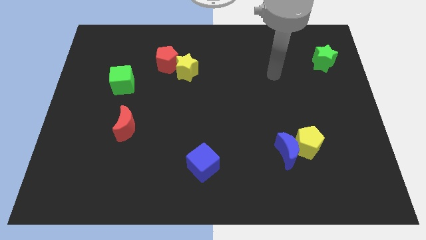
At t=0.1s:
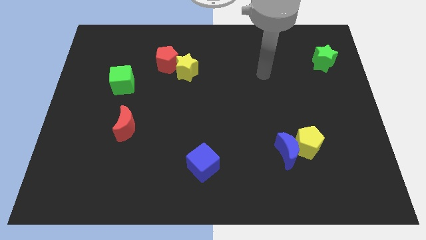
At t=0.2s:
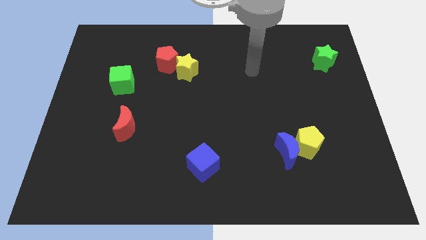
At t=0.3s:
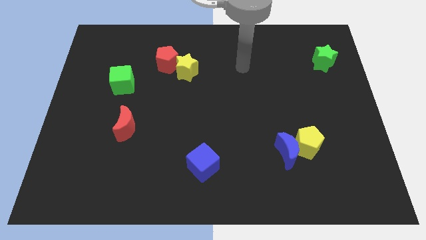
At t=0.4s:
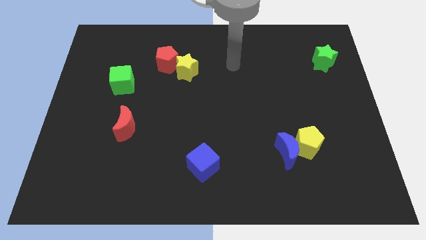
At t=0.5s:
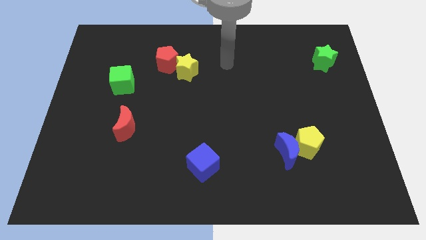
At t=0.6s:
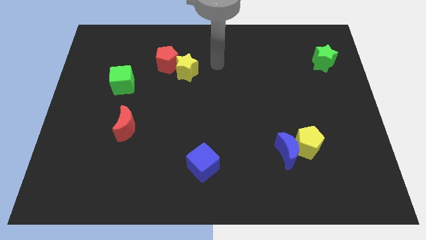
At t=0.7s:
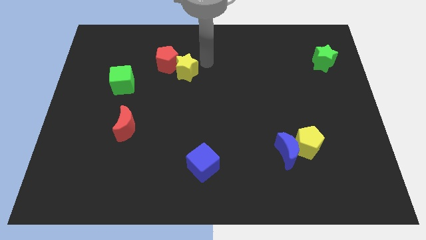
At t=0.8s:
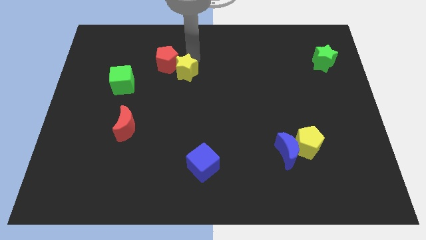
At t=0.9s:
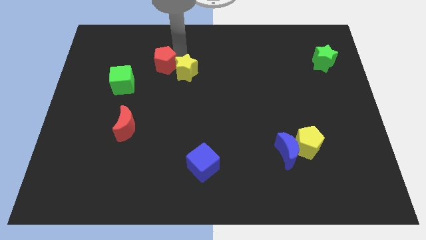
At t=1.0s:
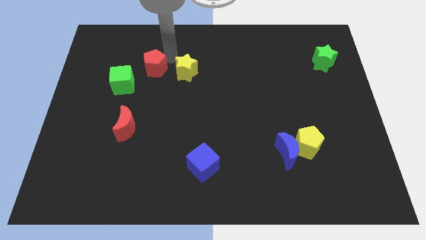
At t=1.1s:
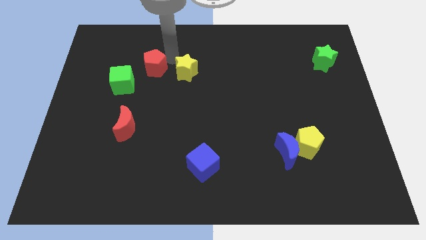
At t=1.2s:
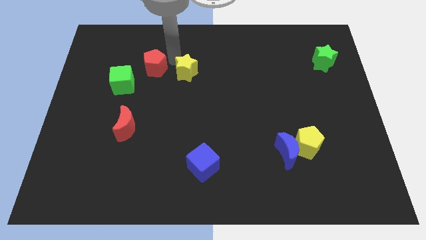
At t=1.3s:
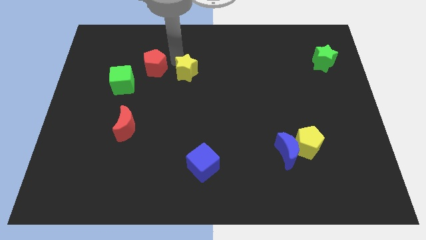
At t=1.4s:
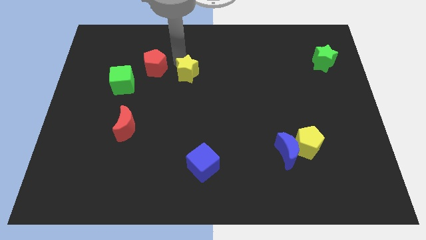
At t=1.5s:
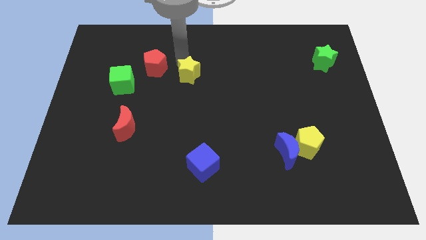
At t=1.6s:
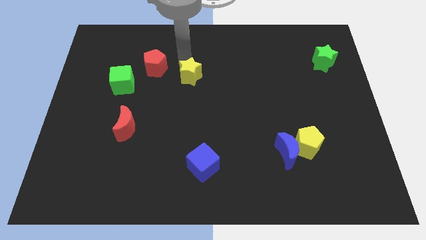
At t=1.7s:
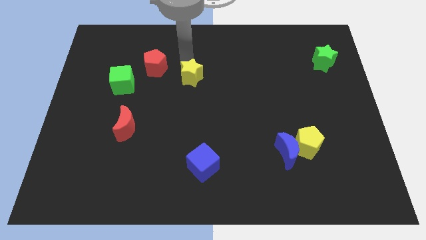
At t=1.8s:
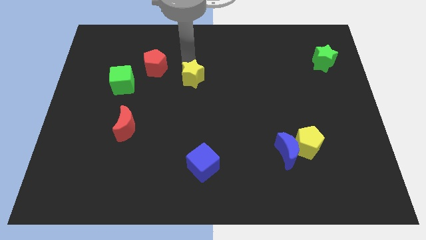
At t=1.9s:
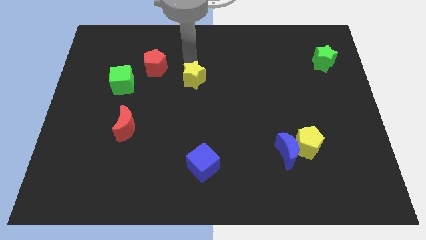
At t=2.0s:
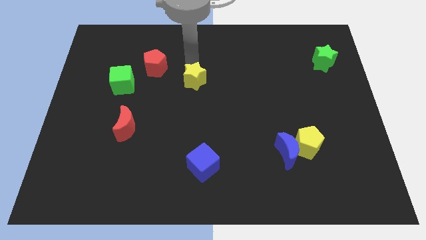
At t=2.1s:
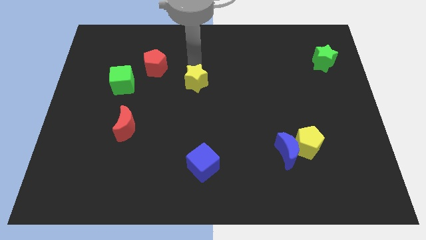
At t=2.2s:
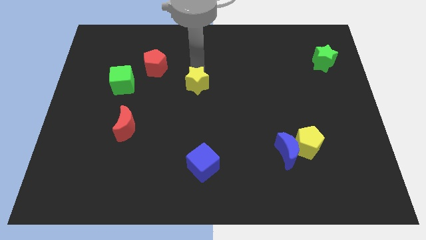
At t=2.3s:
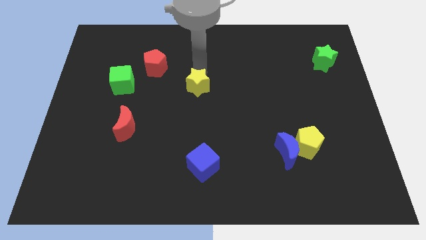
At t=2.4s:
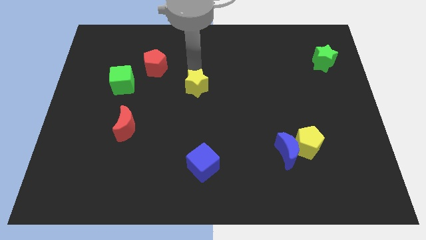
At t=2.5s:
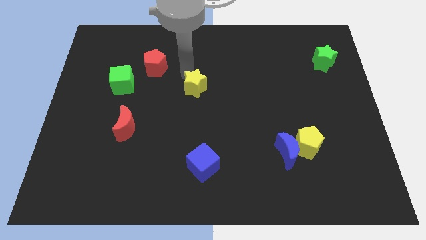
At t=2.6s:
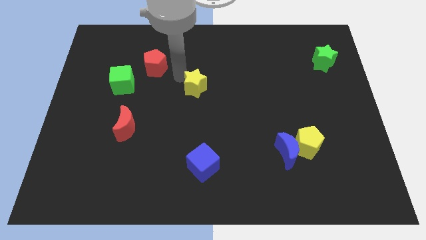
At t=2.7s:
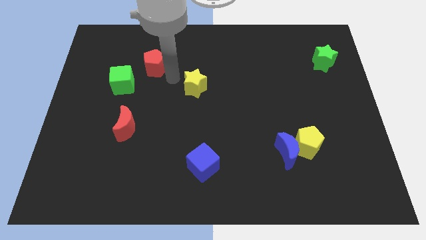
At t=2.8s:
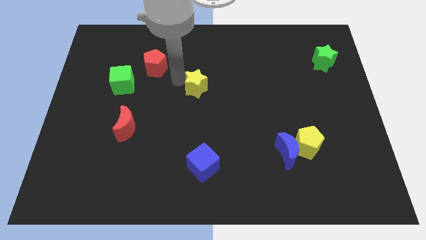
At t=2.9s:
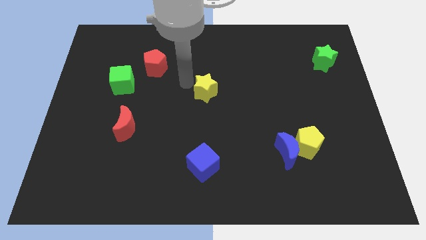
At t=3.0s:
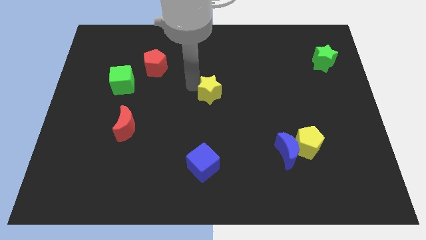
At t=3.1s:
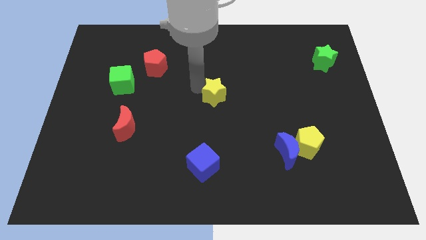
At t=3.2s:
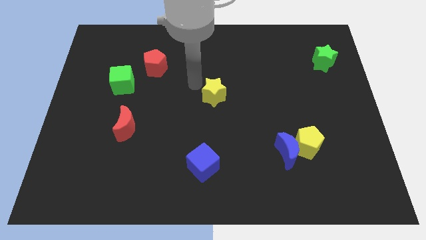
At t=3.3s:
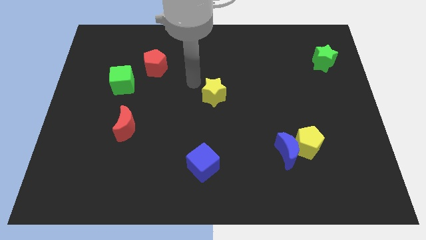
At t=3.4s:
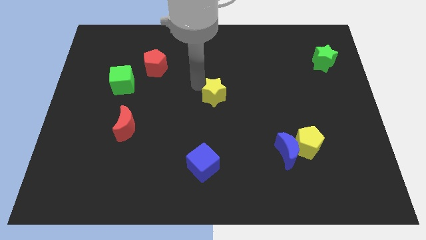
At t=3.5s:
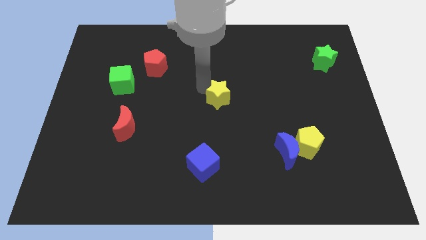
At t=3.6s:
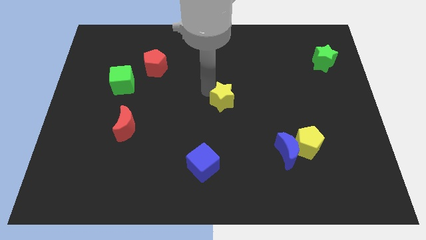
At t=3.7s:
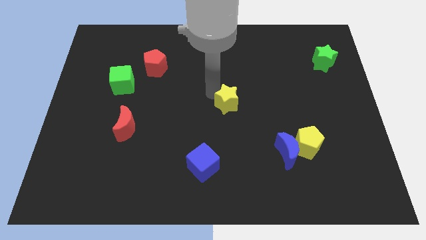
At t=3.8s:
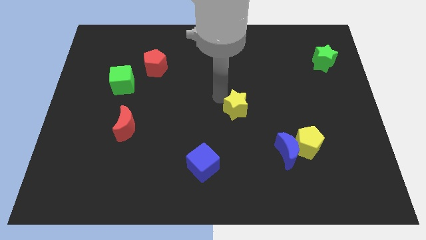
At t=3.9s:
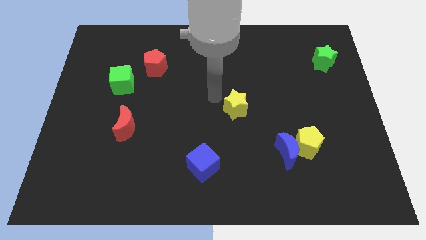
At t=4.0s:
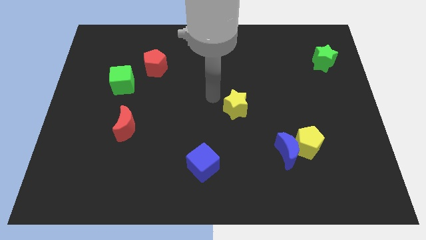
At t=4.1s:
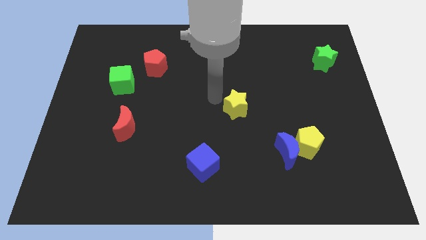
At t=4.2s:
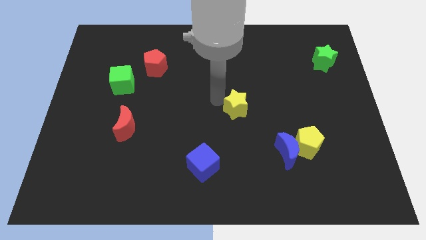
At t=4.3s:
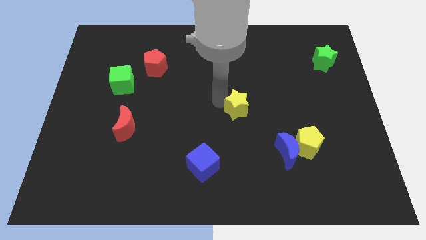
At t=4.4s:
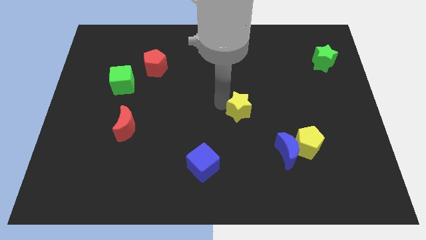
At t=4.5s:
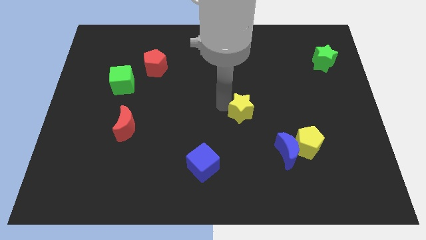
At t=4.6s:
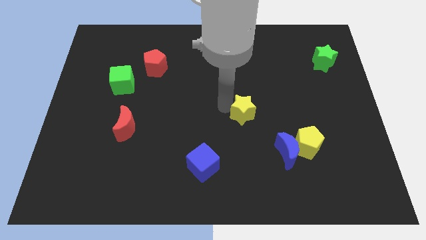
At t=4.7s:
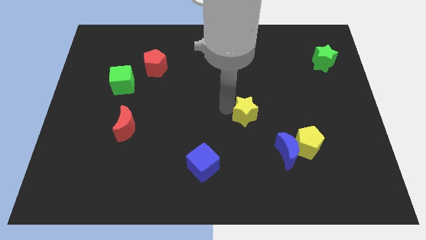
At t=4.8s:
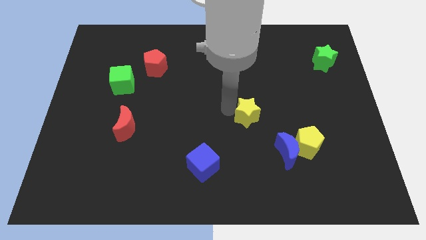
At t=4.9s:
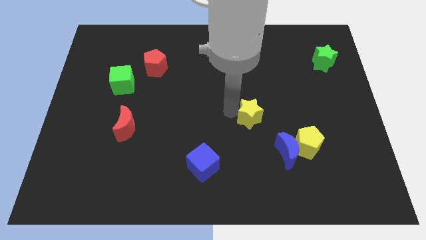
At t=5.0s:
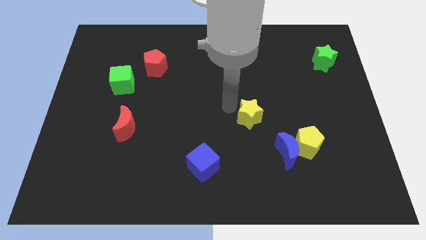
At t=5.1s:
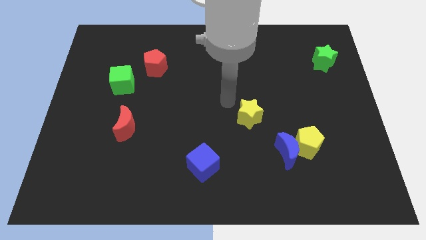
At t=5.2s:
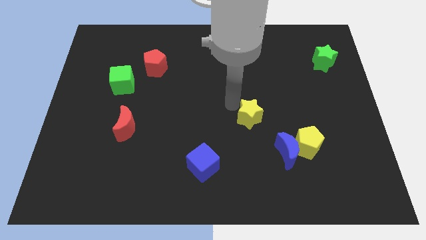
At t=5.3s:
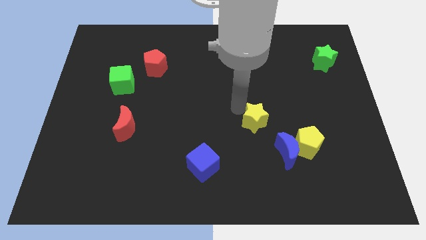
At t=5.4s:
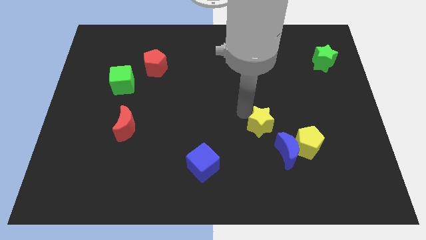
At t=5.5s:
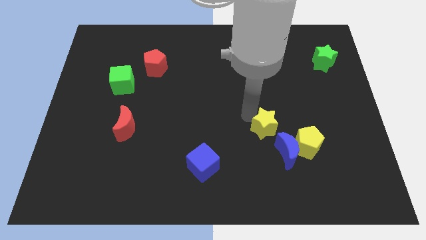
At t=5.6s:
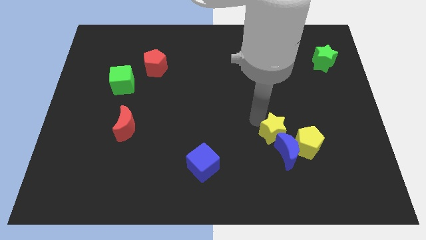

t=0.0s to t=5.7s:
move the yellow star close to the blue moon

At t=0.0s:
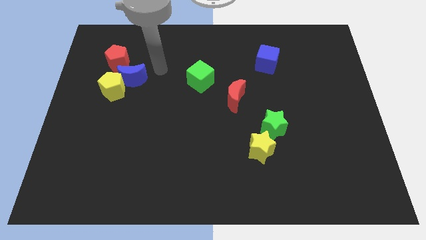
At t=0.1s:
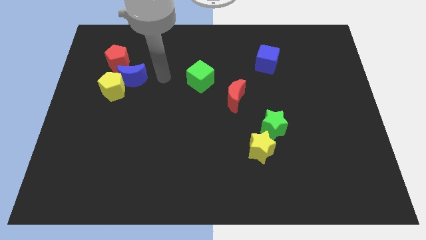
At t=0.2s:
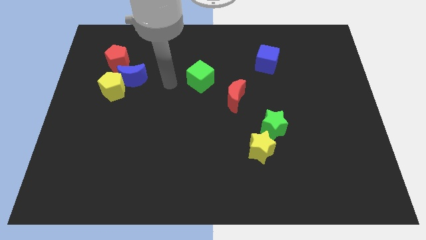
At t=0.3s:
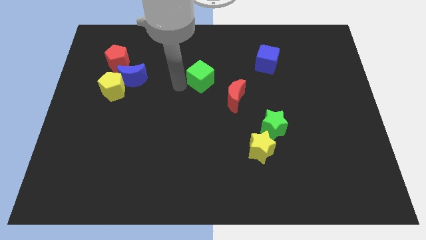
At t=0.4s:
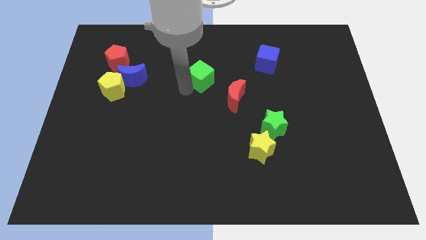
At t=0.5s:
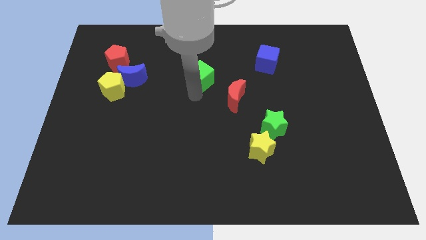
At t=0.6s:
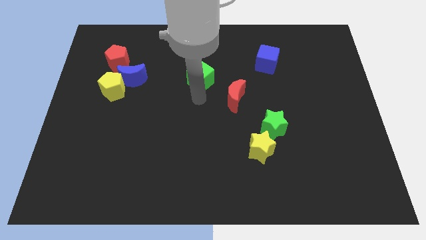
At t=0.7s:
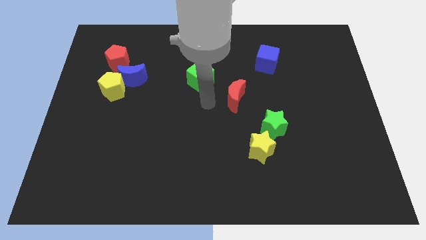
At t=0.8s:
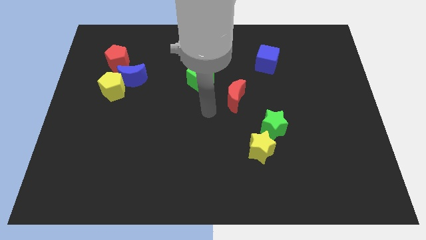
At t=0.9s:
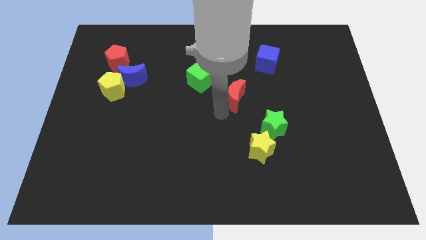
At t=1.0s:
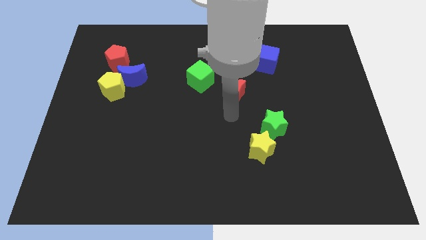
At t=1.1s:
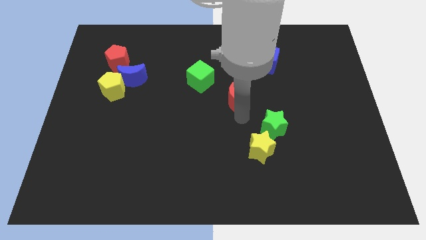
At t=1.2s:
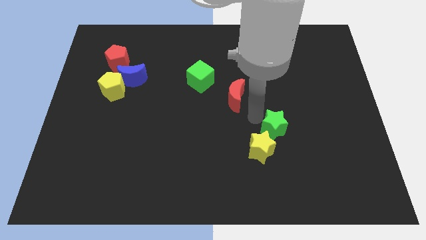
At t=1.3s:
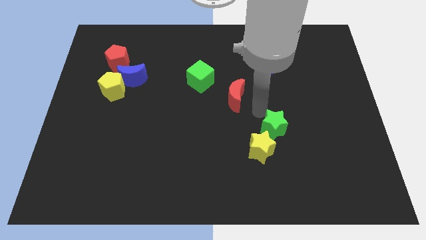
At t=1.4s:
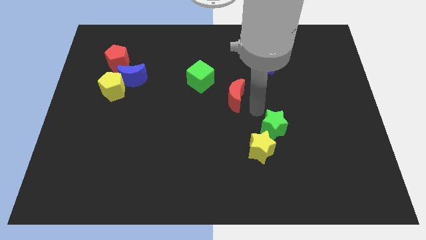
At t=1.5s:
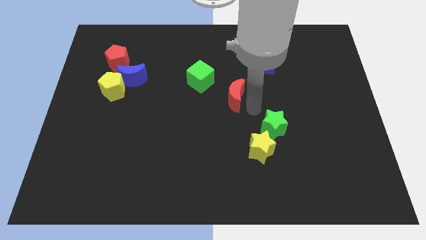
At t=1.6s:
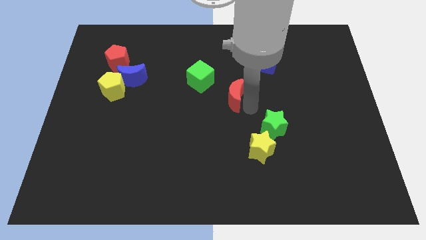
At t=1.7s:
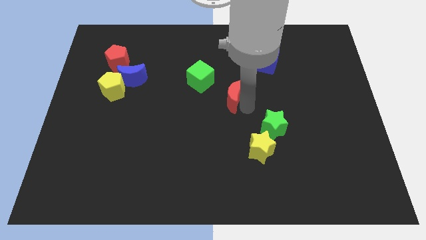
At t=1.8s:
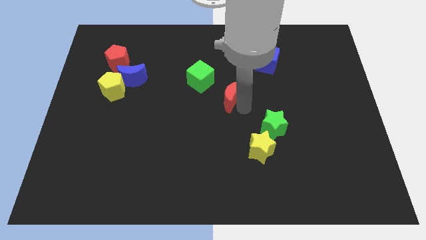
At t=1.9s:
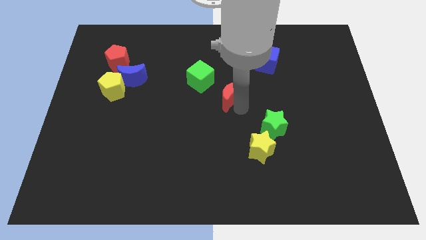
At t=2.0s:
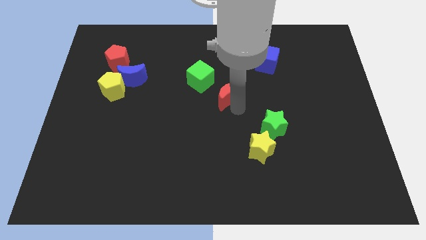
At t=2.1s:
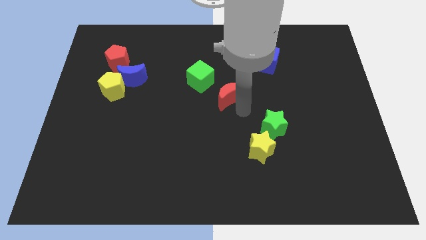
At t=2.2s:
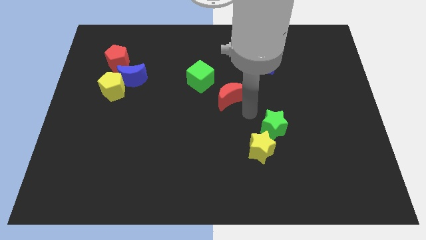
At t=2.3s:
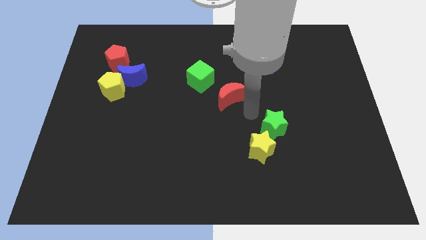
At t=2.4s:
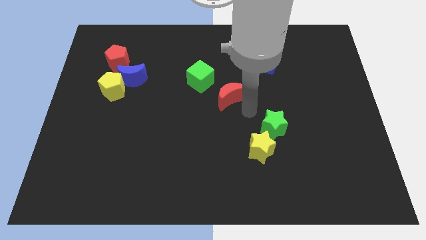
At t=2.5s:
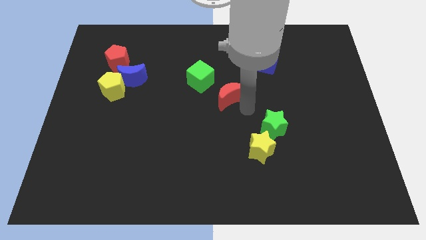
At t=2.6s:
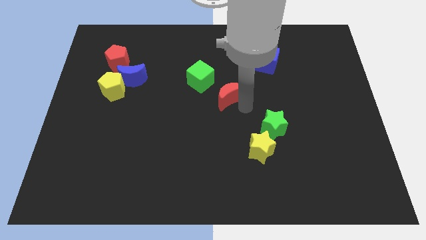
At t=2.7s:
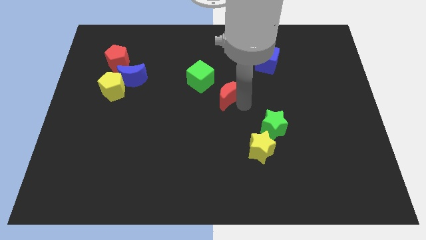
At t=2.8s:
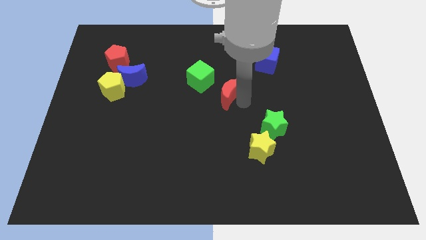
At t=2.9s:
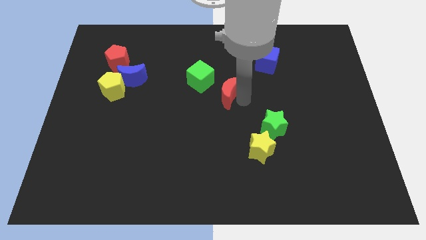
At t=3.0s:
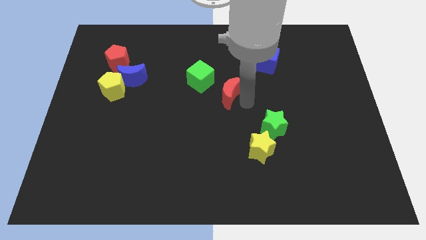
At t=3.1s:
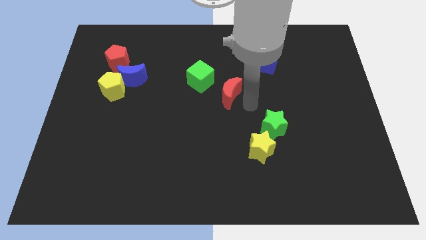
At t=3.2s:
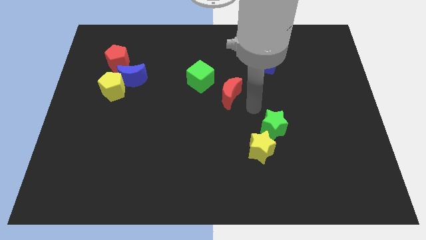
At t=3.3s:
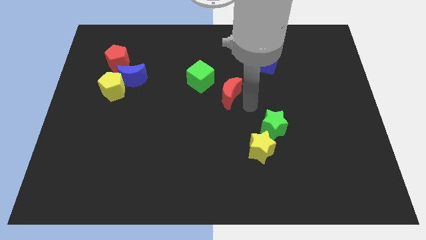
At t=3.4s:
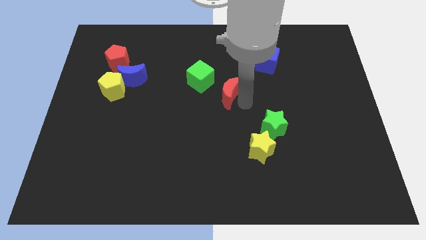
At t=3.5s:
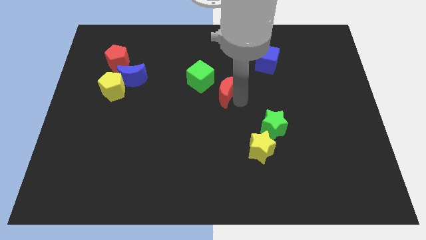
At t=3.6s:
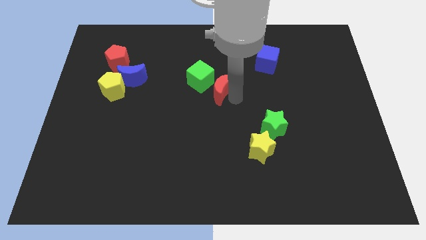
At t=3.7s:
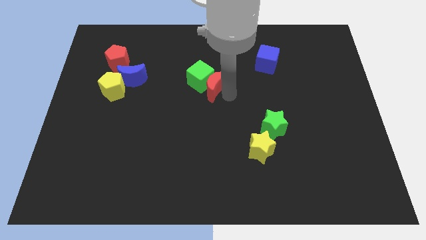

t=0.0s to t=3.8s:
move the red moon towards the green cube
